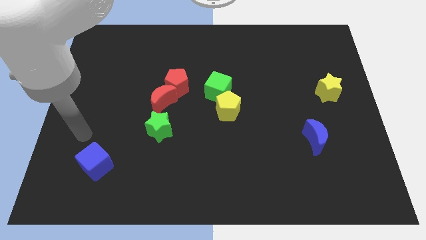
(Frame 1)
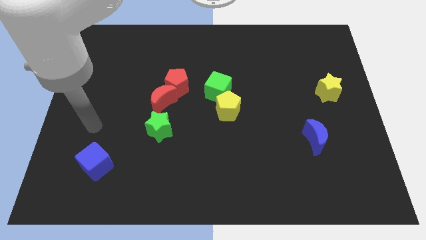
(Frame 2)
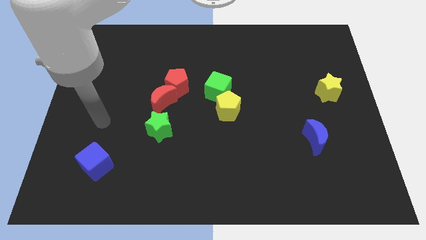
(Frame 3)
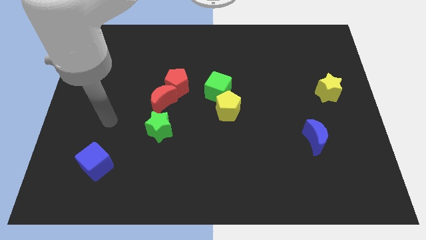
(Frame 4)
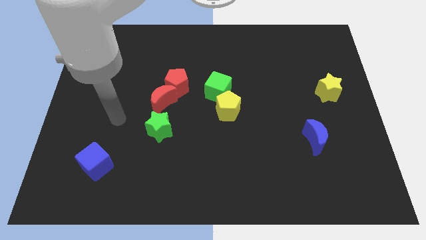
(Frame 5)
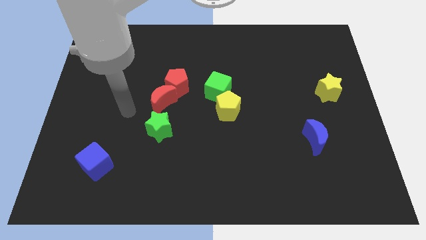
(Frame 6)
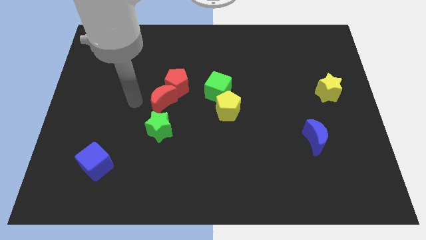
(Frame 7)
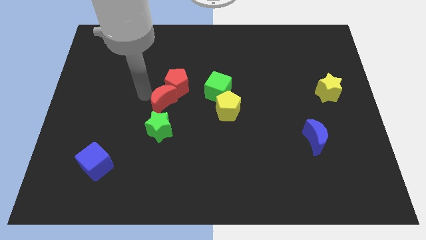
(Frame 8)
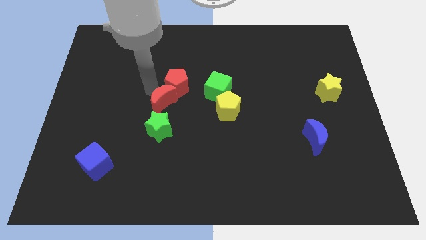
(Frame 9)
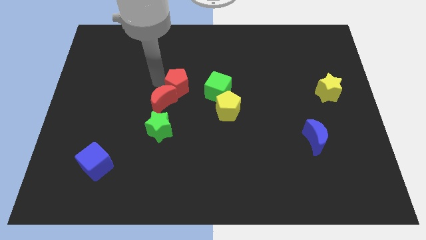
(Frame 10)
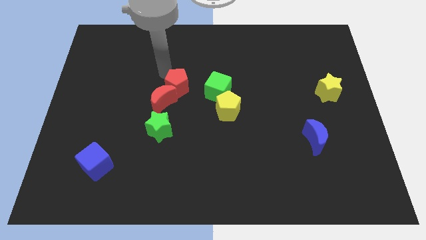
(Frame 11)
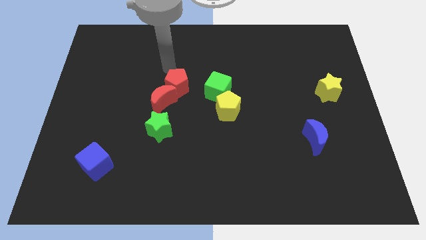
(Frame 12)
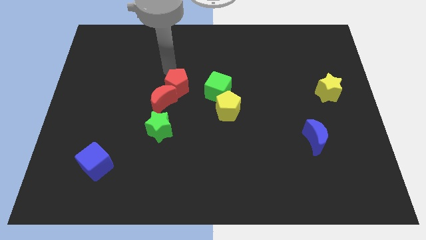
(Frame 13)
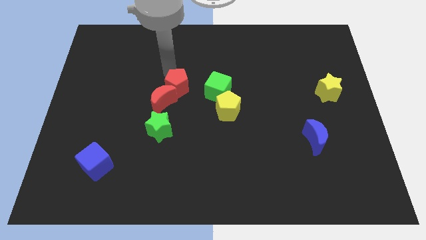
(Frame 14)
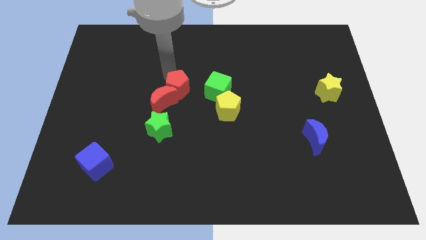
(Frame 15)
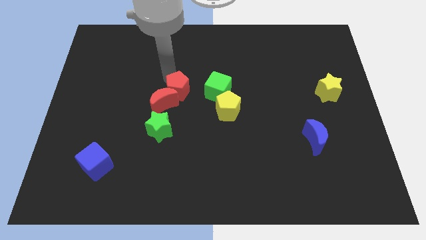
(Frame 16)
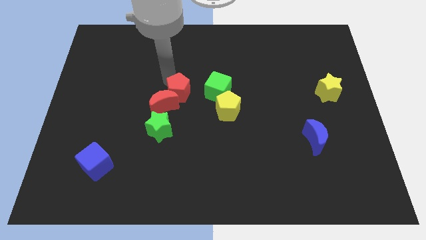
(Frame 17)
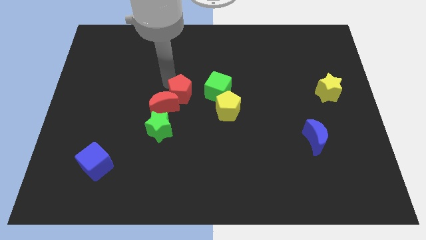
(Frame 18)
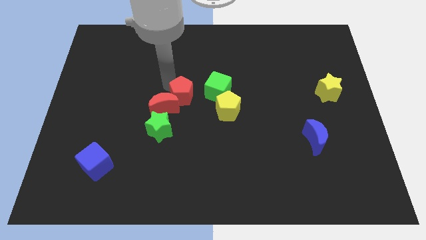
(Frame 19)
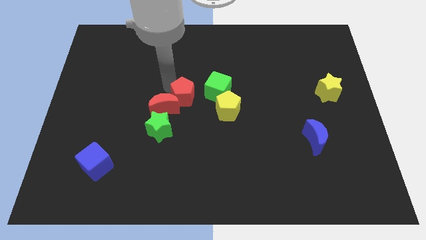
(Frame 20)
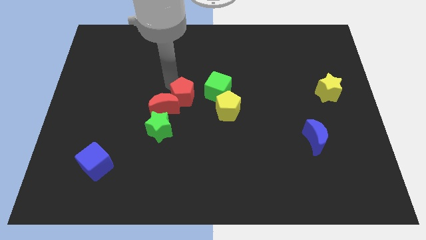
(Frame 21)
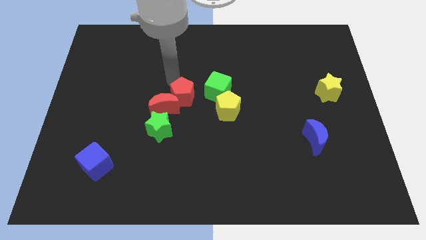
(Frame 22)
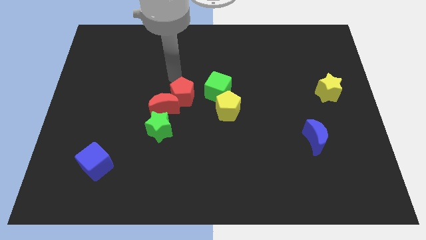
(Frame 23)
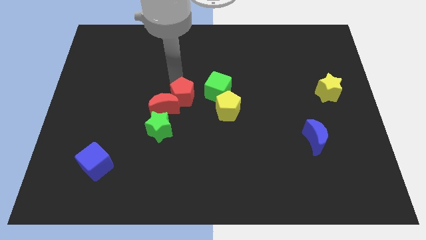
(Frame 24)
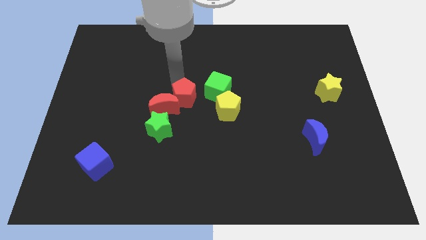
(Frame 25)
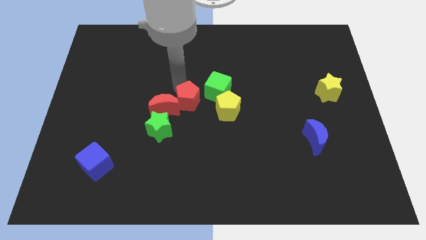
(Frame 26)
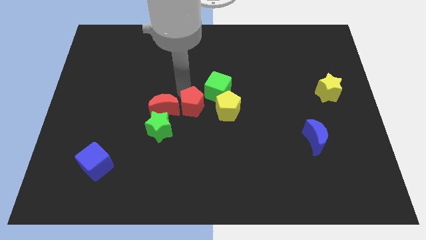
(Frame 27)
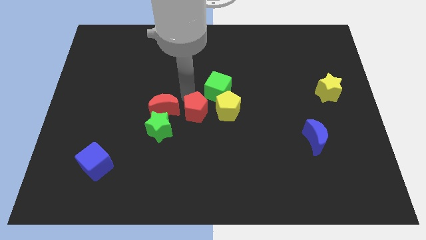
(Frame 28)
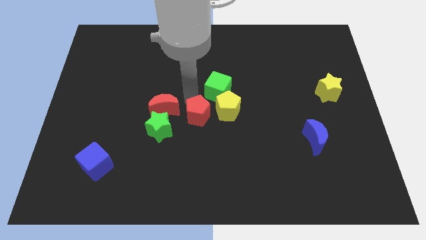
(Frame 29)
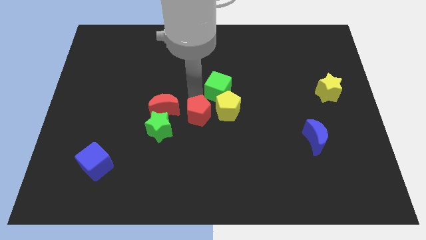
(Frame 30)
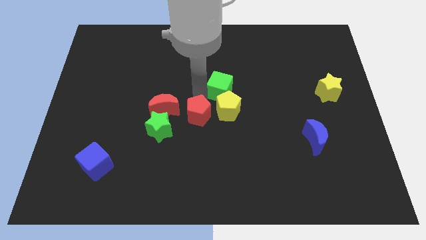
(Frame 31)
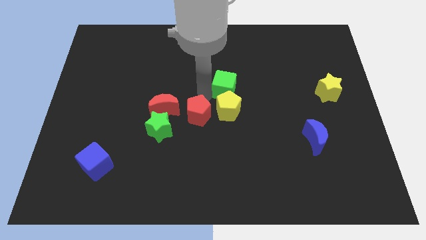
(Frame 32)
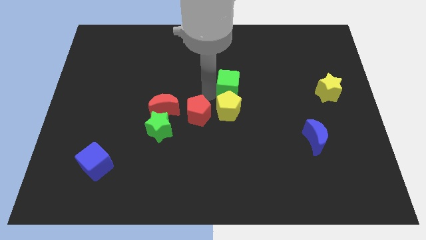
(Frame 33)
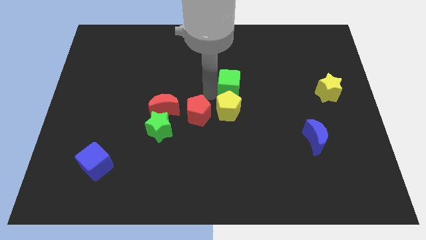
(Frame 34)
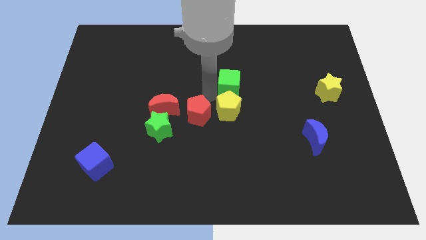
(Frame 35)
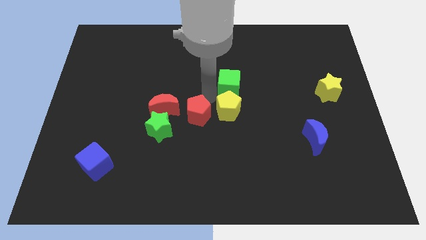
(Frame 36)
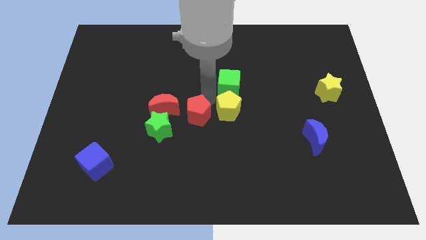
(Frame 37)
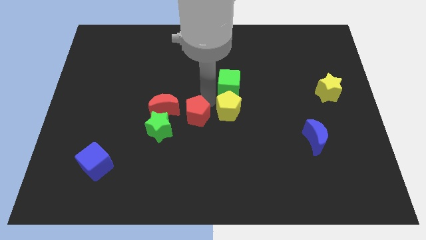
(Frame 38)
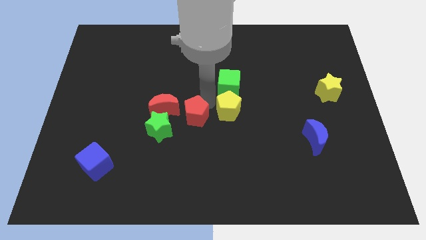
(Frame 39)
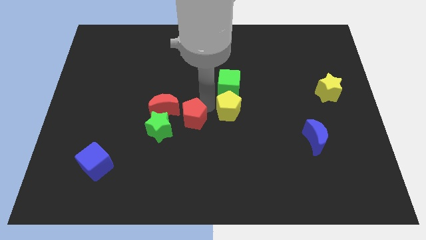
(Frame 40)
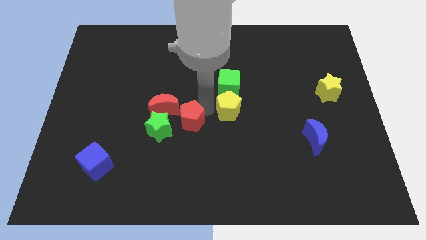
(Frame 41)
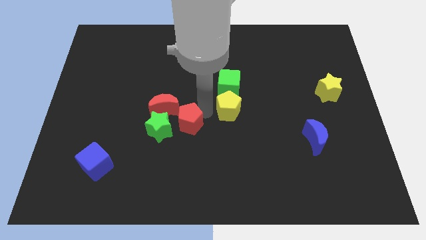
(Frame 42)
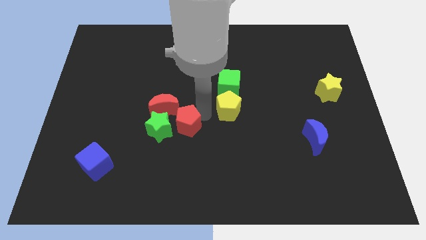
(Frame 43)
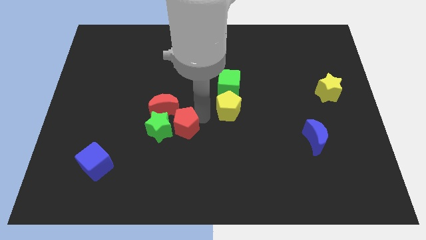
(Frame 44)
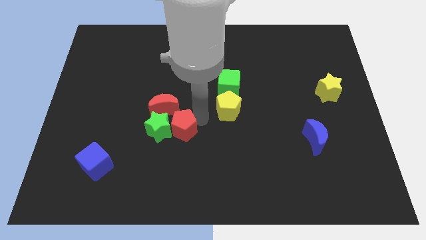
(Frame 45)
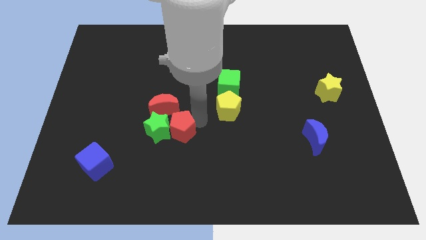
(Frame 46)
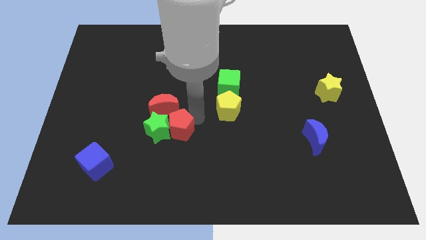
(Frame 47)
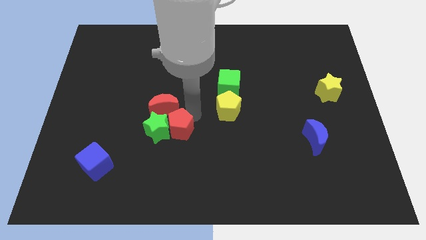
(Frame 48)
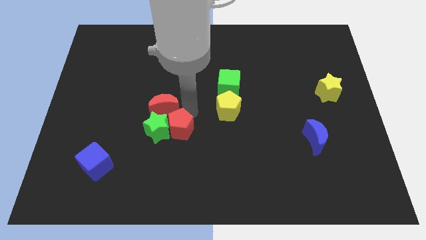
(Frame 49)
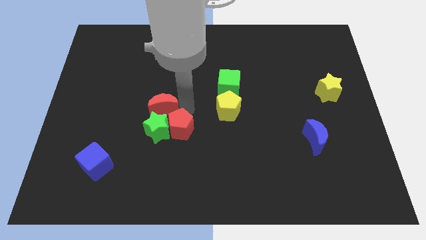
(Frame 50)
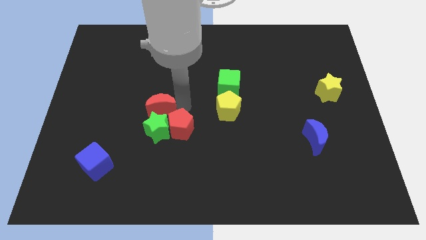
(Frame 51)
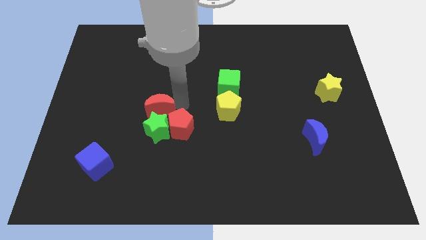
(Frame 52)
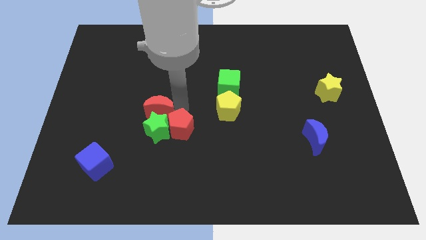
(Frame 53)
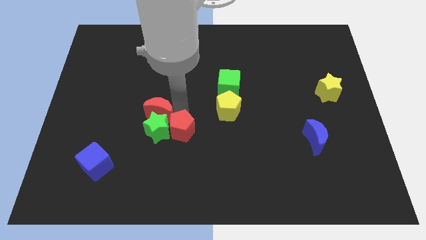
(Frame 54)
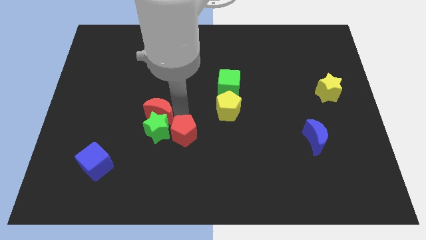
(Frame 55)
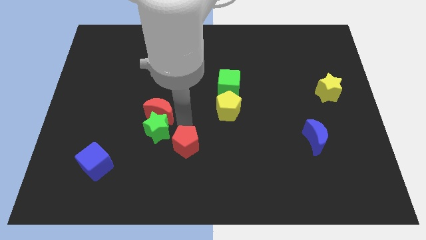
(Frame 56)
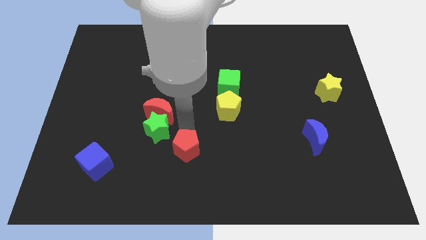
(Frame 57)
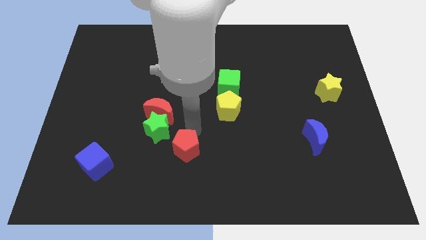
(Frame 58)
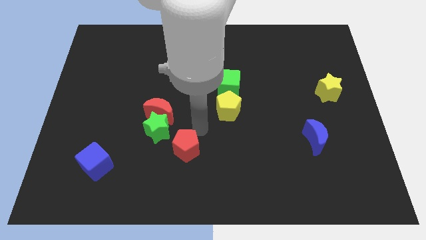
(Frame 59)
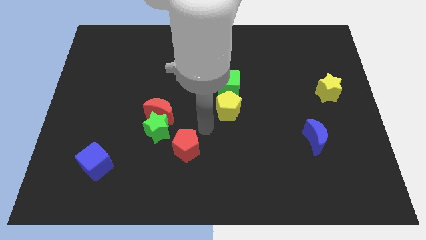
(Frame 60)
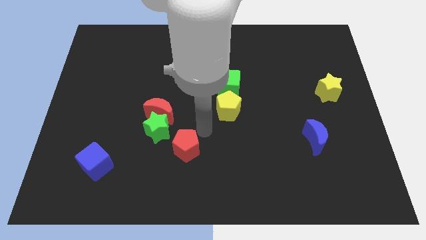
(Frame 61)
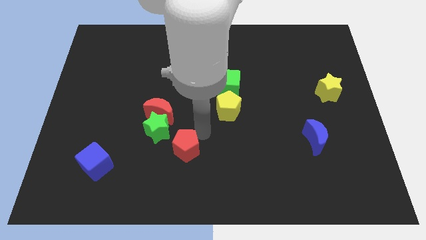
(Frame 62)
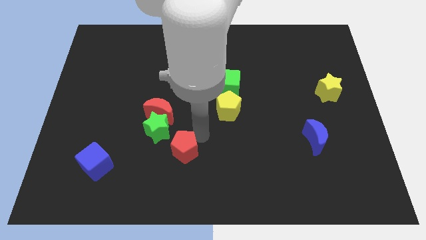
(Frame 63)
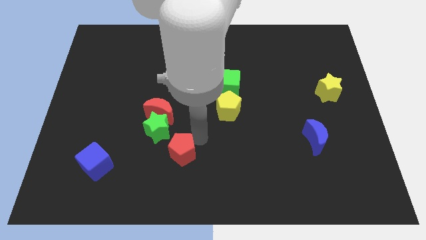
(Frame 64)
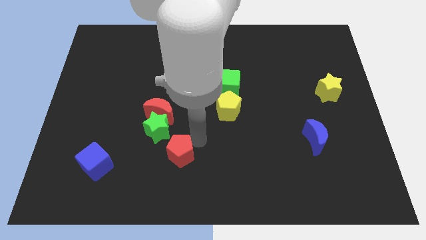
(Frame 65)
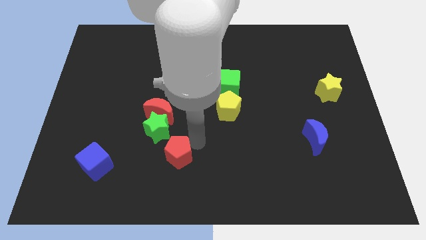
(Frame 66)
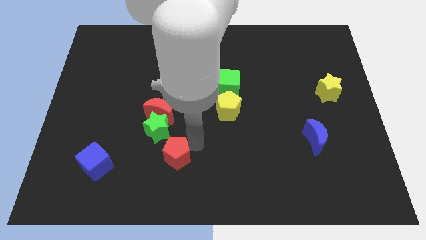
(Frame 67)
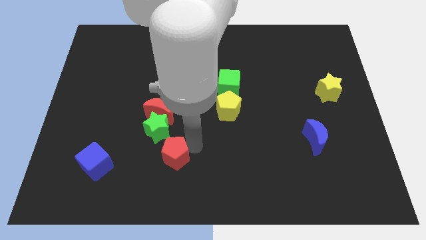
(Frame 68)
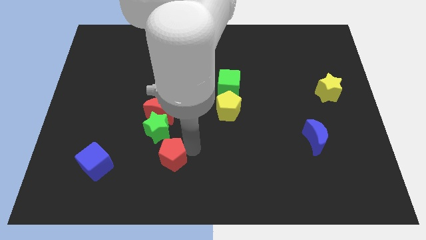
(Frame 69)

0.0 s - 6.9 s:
slide the red pentagon right of the blue cube

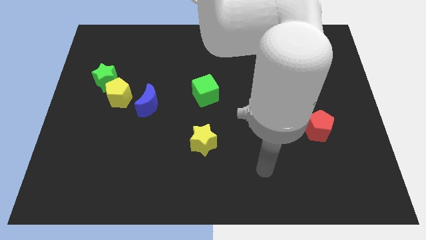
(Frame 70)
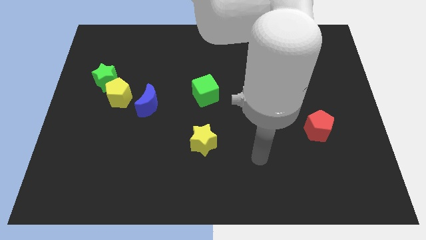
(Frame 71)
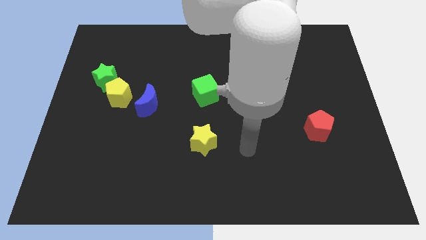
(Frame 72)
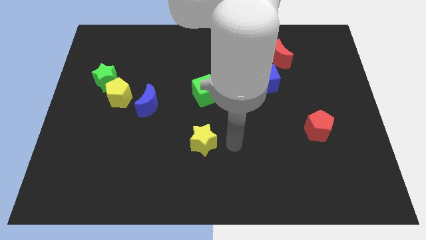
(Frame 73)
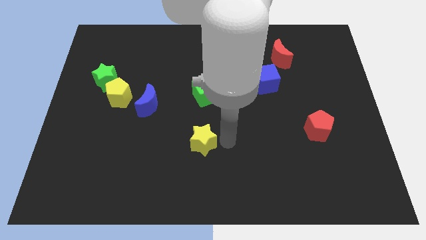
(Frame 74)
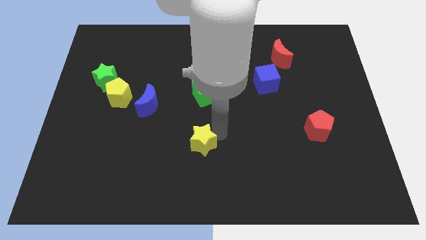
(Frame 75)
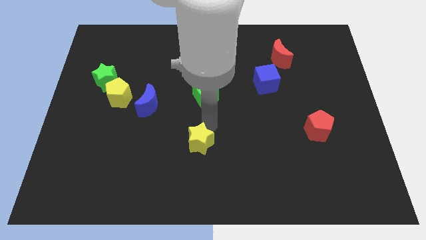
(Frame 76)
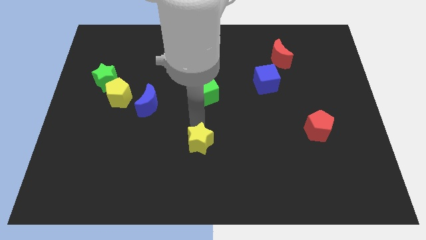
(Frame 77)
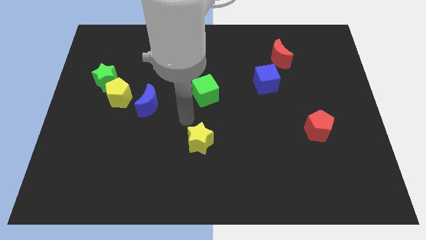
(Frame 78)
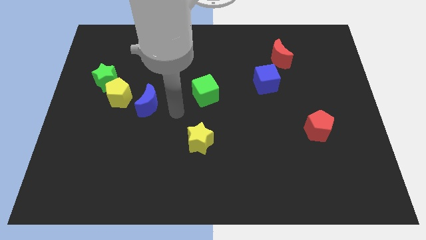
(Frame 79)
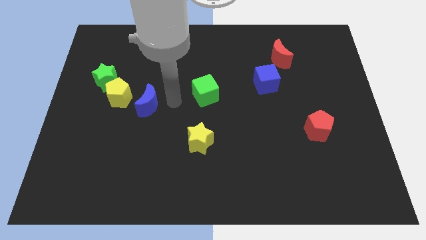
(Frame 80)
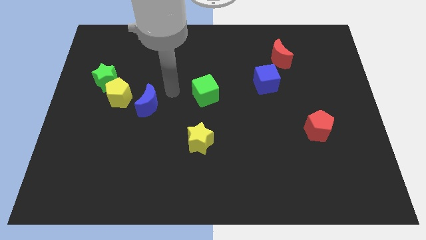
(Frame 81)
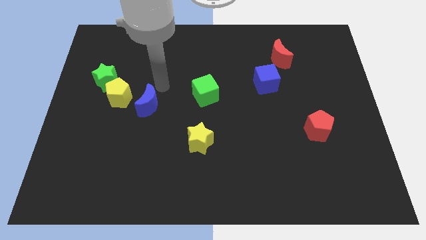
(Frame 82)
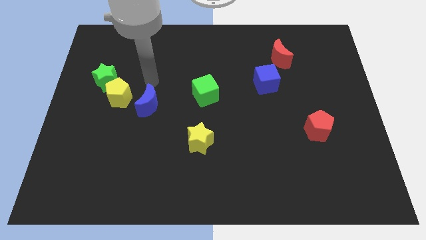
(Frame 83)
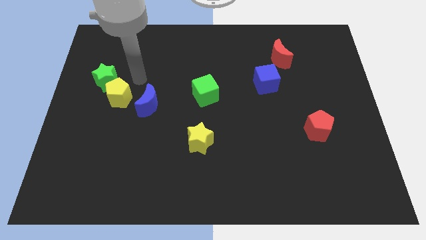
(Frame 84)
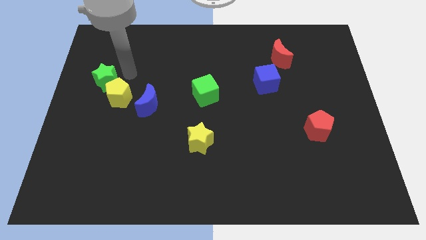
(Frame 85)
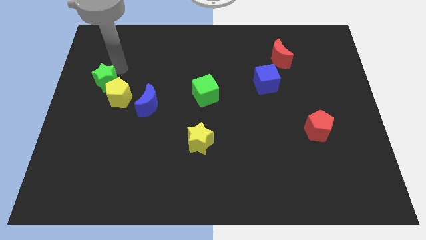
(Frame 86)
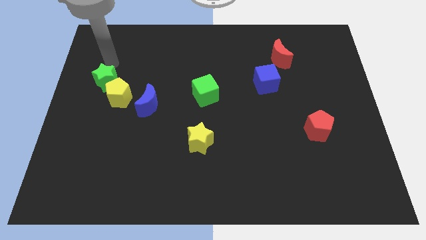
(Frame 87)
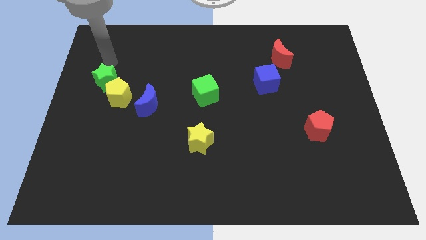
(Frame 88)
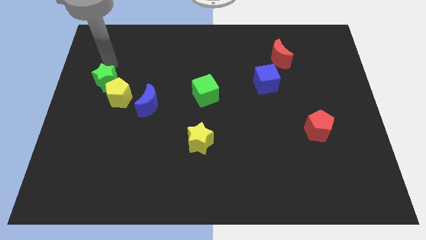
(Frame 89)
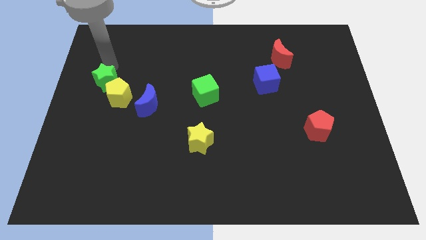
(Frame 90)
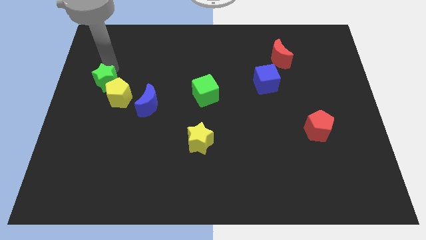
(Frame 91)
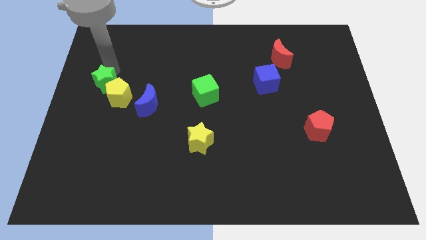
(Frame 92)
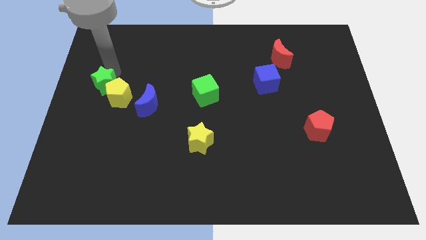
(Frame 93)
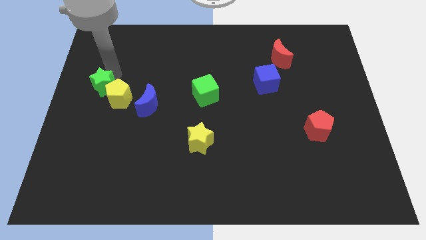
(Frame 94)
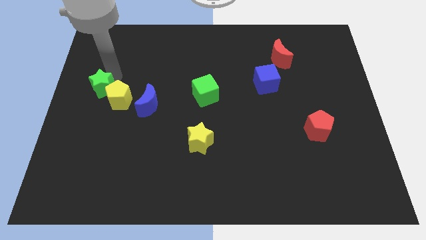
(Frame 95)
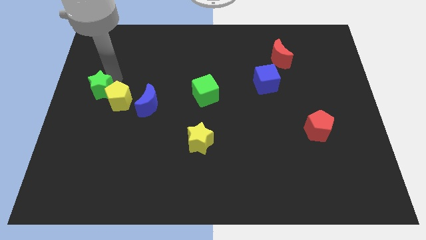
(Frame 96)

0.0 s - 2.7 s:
slide the green star left of the blue moon
